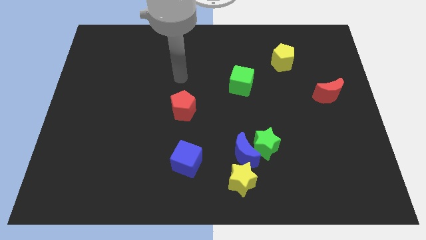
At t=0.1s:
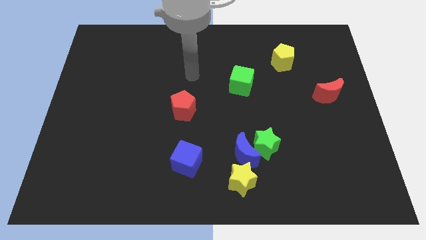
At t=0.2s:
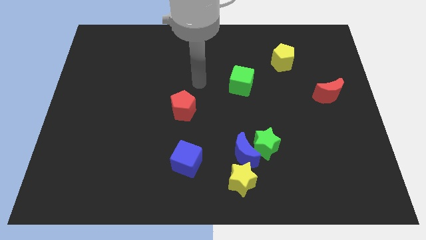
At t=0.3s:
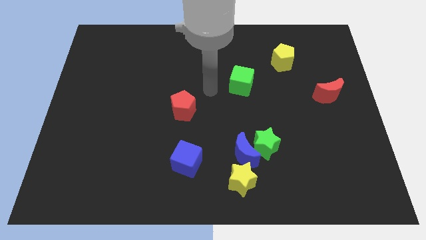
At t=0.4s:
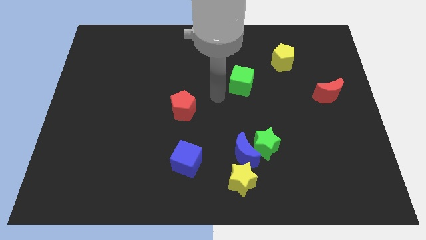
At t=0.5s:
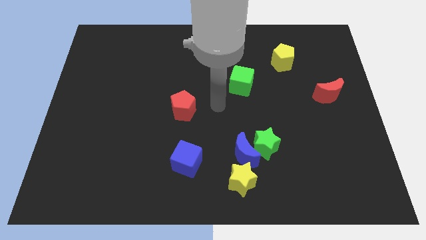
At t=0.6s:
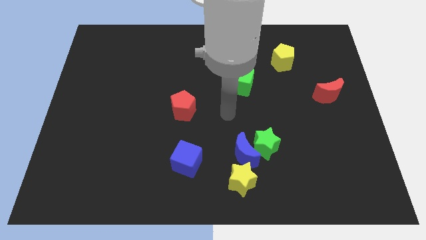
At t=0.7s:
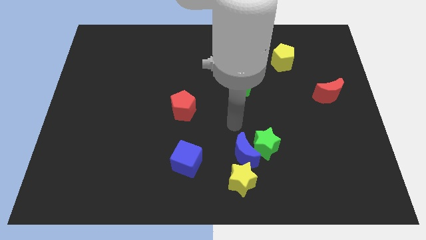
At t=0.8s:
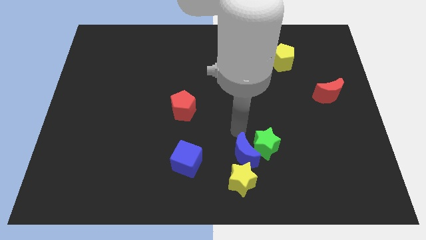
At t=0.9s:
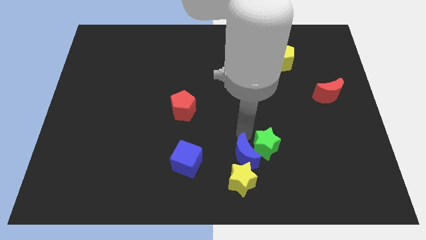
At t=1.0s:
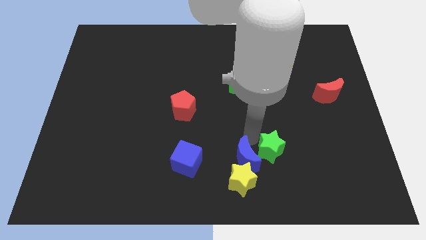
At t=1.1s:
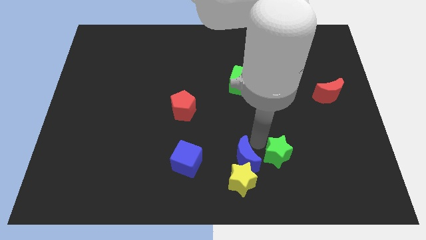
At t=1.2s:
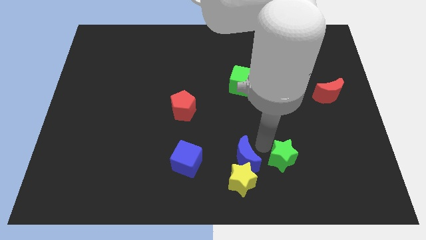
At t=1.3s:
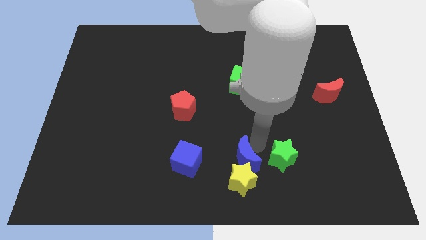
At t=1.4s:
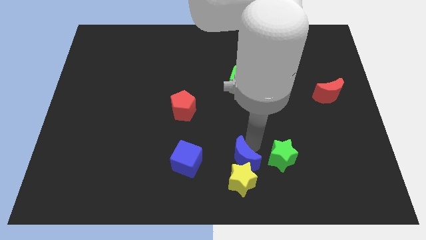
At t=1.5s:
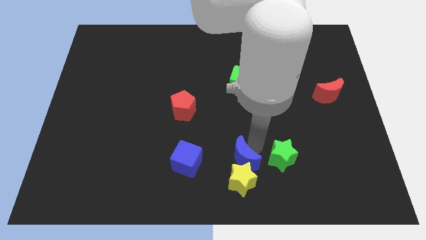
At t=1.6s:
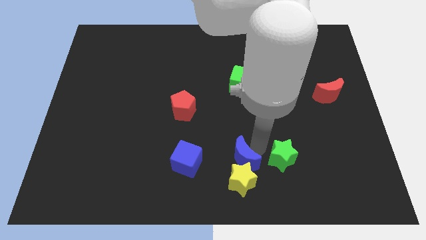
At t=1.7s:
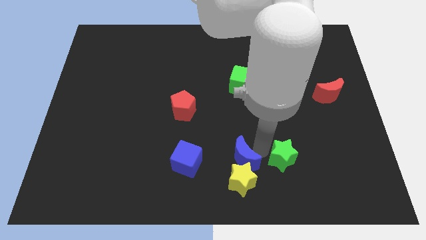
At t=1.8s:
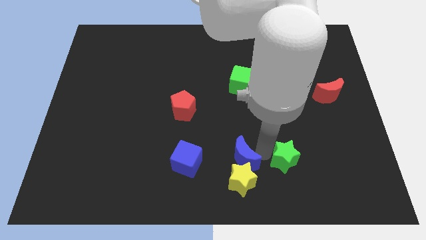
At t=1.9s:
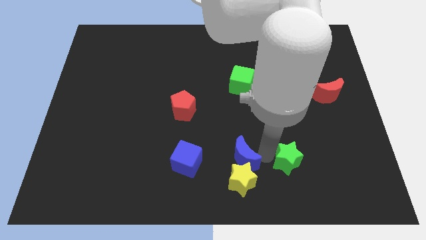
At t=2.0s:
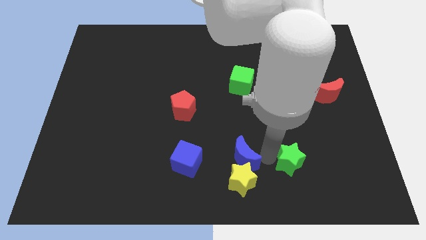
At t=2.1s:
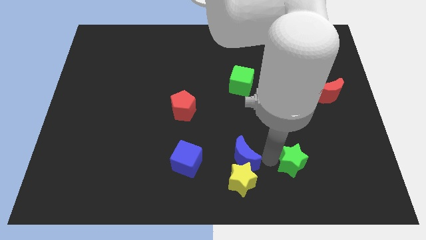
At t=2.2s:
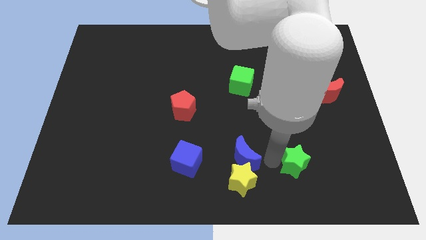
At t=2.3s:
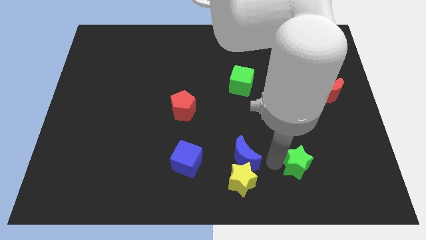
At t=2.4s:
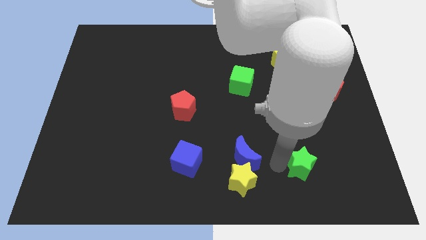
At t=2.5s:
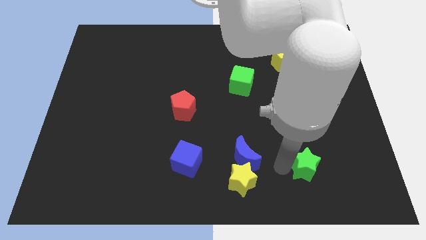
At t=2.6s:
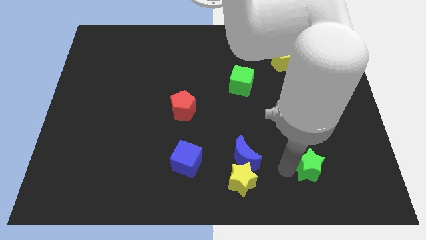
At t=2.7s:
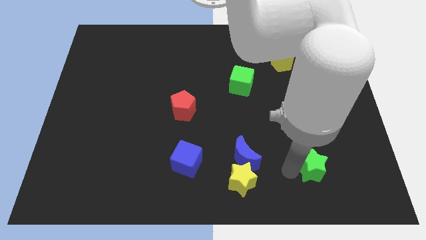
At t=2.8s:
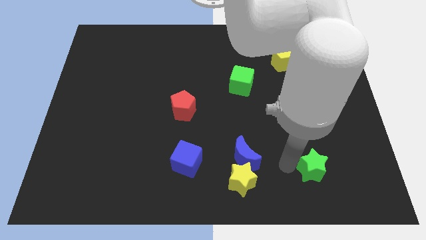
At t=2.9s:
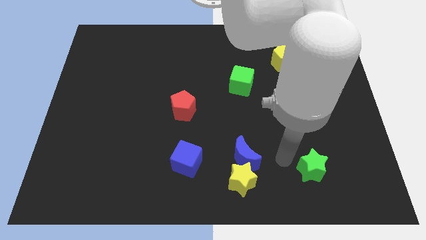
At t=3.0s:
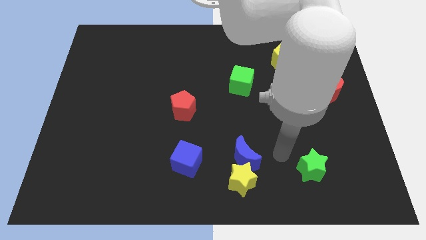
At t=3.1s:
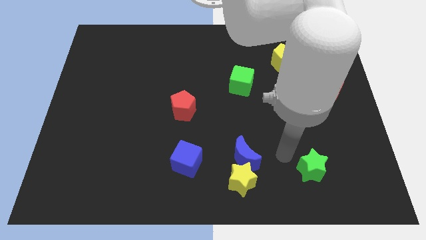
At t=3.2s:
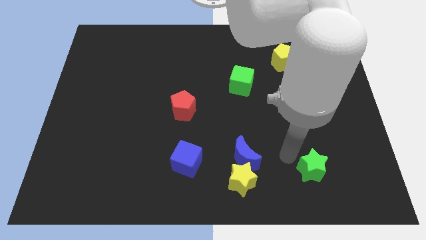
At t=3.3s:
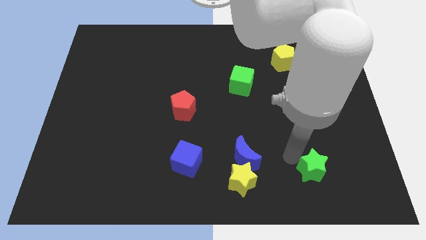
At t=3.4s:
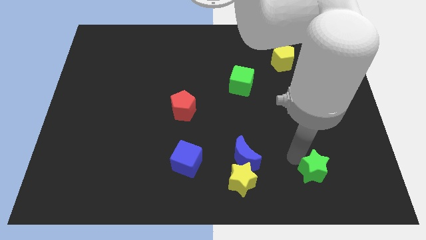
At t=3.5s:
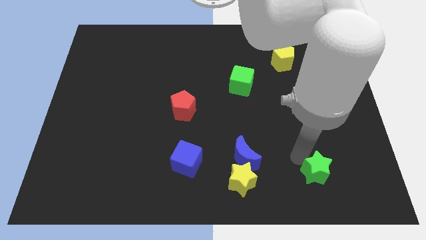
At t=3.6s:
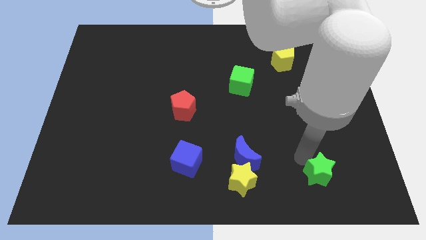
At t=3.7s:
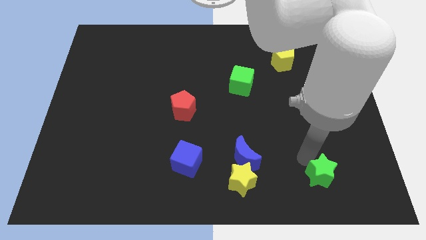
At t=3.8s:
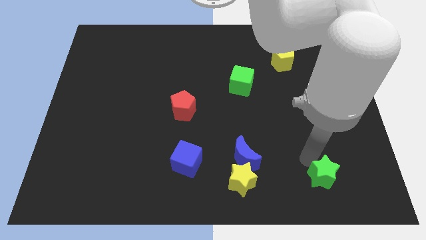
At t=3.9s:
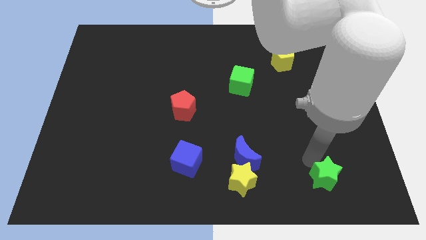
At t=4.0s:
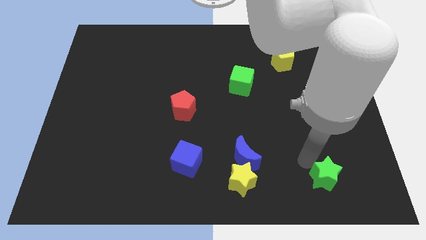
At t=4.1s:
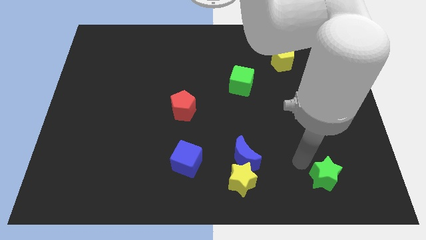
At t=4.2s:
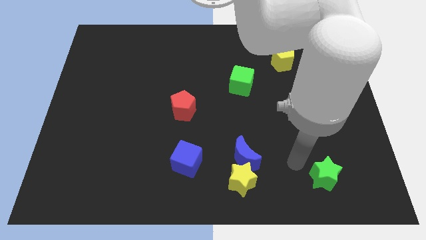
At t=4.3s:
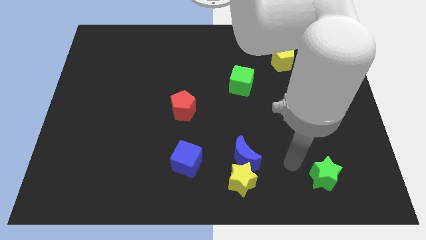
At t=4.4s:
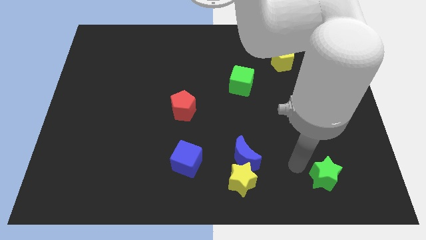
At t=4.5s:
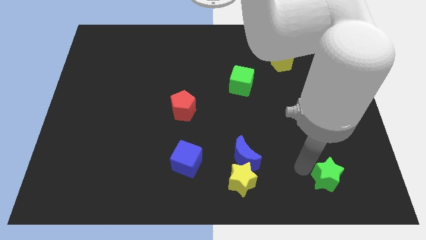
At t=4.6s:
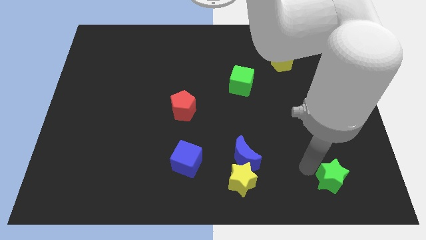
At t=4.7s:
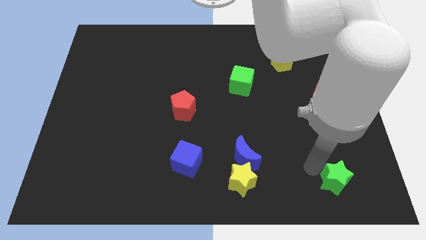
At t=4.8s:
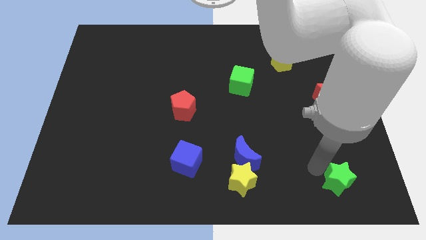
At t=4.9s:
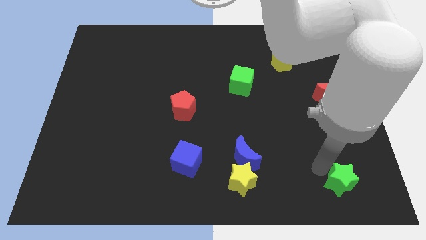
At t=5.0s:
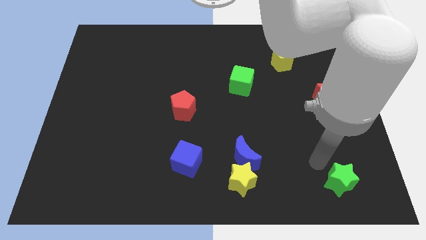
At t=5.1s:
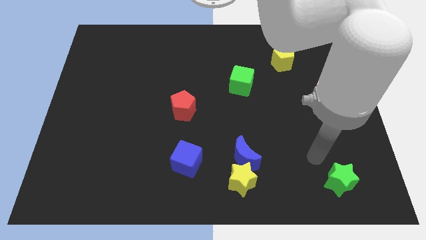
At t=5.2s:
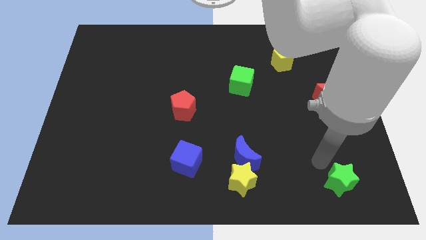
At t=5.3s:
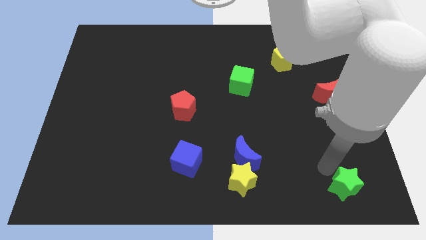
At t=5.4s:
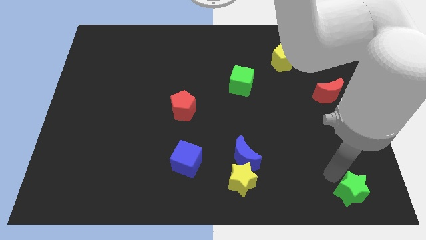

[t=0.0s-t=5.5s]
push the green star to the bottom right corner

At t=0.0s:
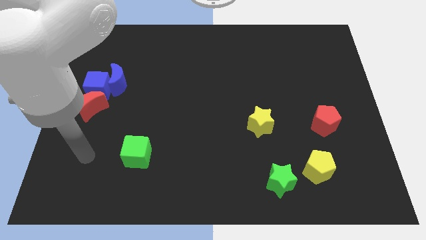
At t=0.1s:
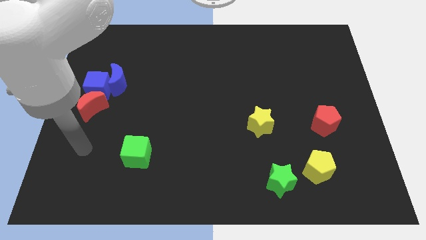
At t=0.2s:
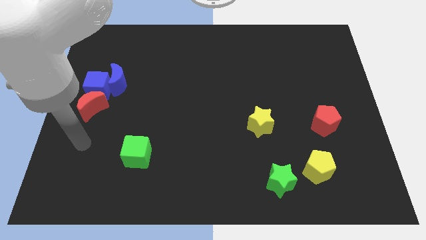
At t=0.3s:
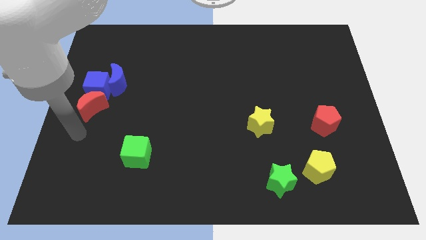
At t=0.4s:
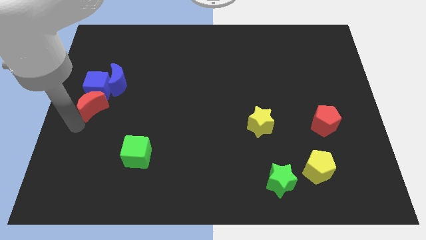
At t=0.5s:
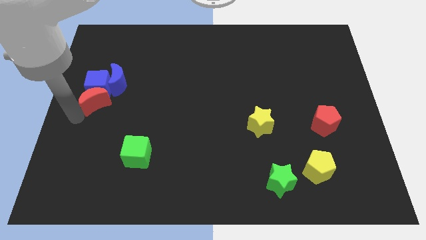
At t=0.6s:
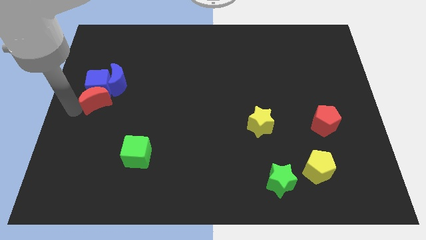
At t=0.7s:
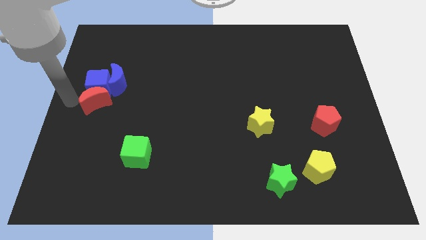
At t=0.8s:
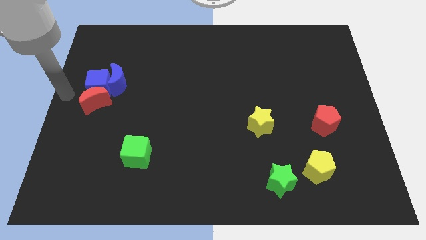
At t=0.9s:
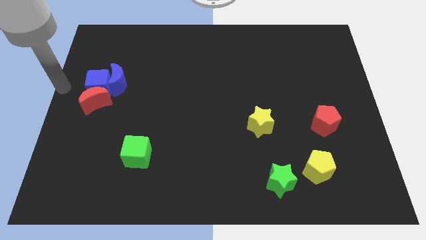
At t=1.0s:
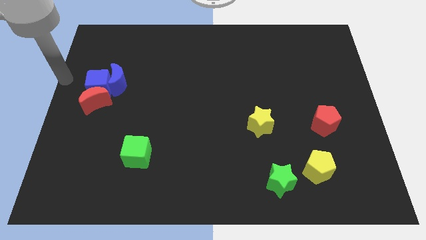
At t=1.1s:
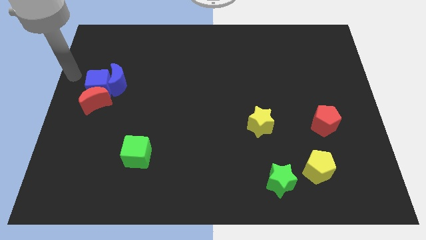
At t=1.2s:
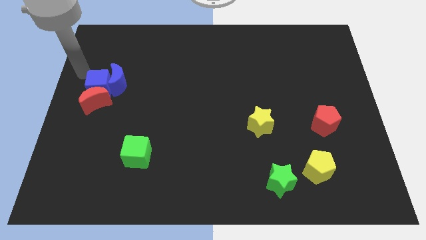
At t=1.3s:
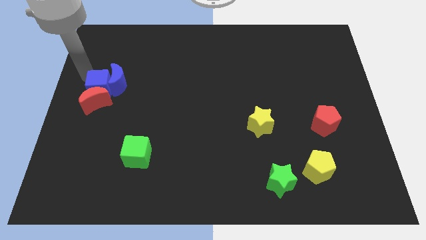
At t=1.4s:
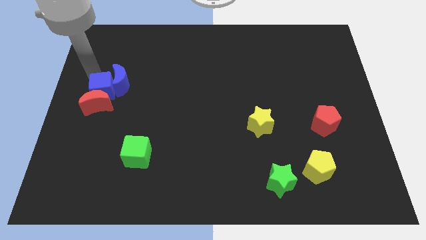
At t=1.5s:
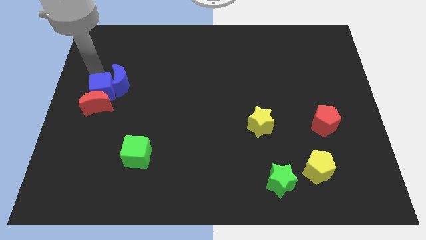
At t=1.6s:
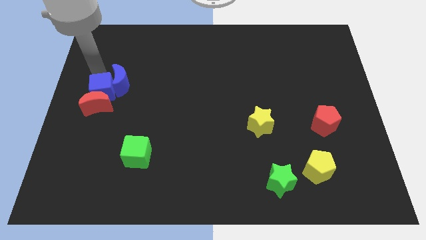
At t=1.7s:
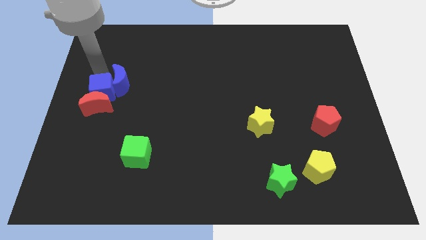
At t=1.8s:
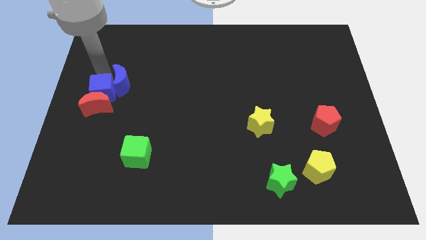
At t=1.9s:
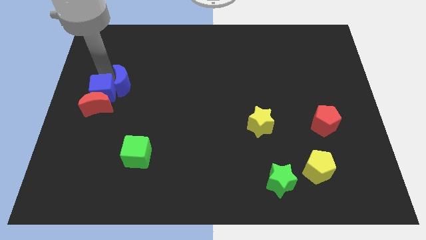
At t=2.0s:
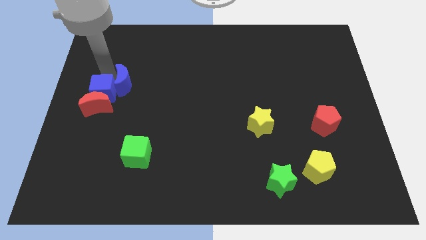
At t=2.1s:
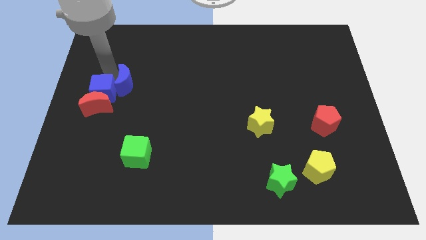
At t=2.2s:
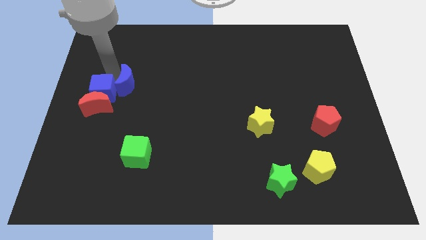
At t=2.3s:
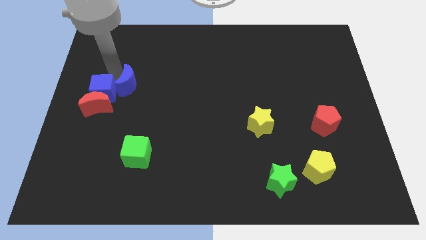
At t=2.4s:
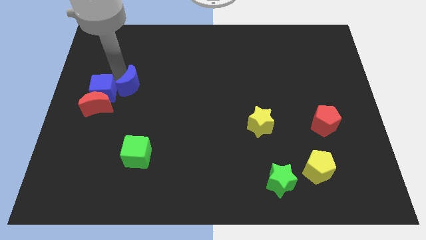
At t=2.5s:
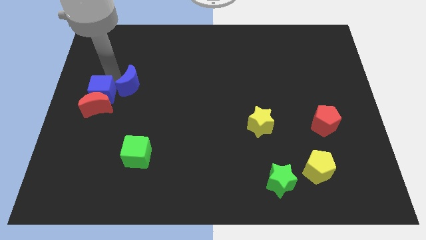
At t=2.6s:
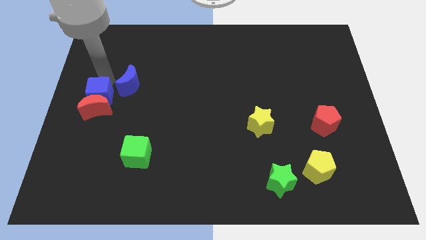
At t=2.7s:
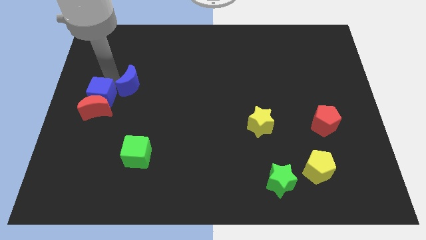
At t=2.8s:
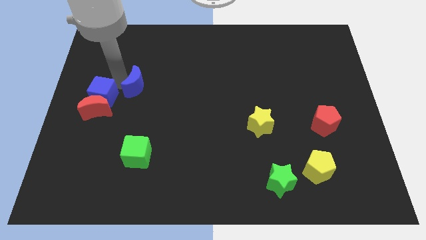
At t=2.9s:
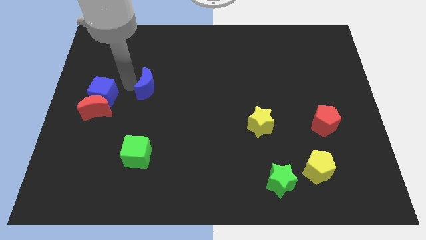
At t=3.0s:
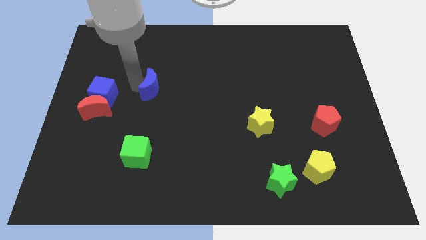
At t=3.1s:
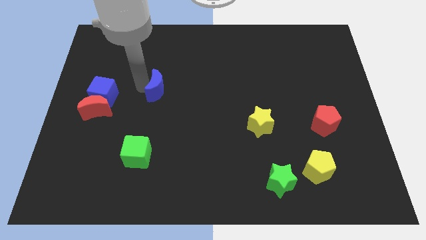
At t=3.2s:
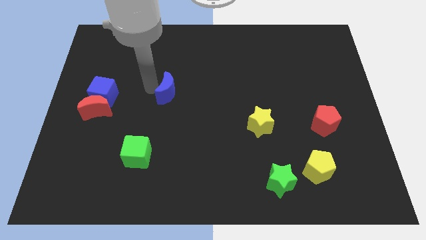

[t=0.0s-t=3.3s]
put the blue moon to the center
